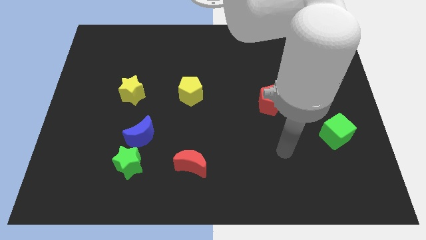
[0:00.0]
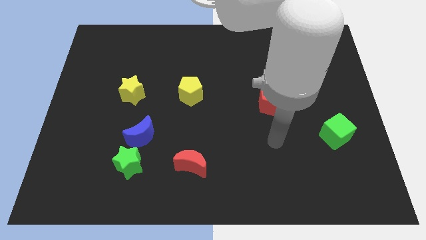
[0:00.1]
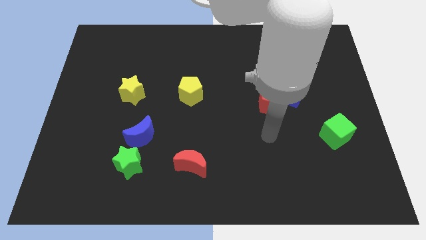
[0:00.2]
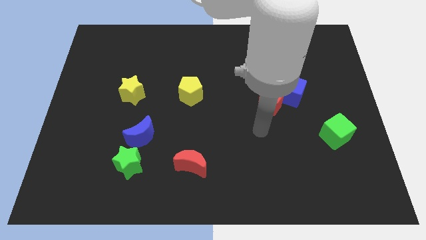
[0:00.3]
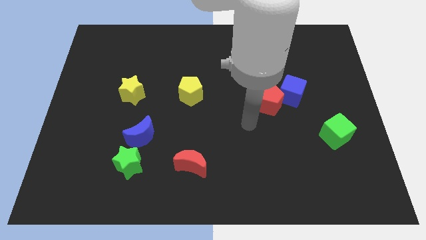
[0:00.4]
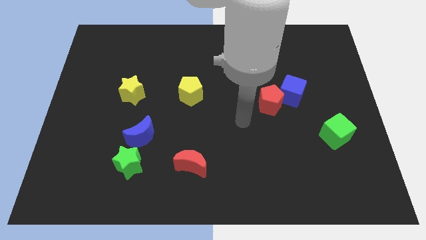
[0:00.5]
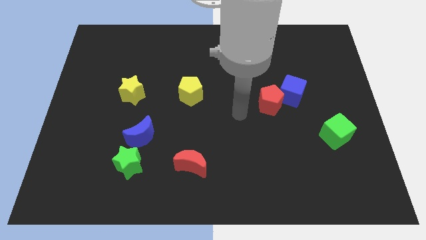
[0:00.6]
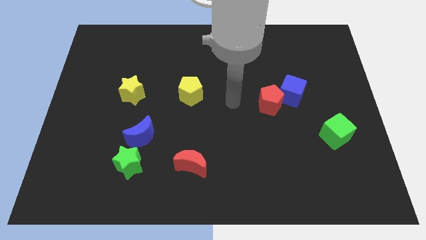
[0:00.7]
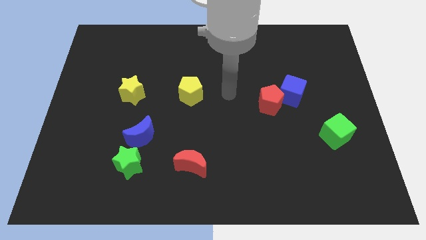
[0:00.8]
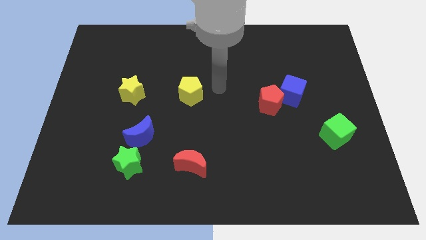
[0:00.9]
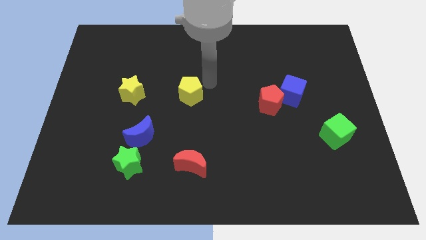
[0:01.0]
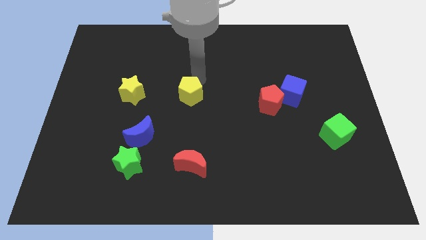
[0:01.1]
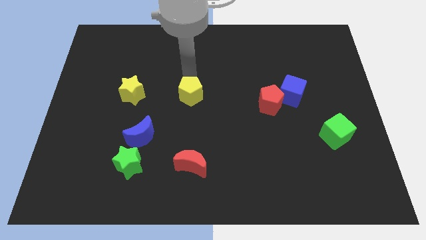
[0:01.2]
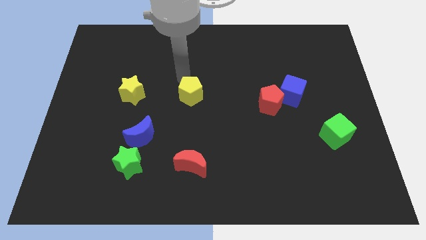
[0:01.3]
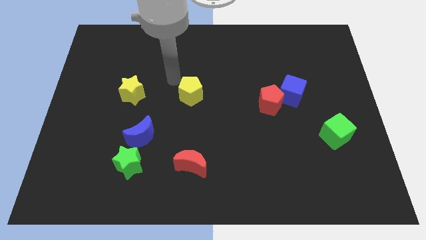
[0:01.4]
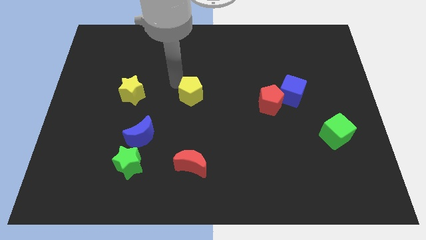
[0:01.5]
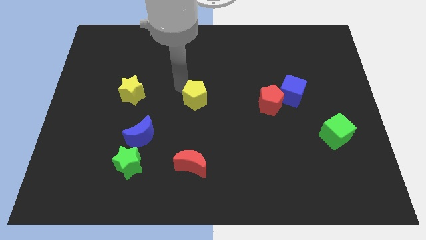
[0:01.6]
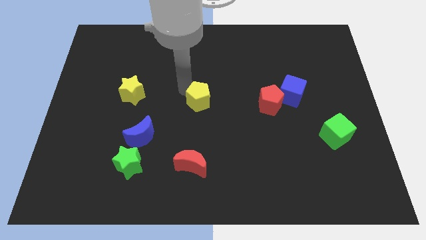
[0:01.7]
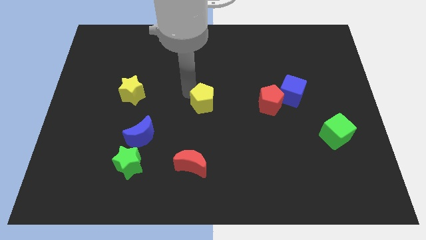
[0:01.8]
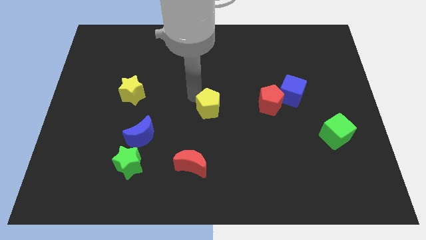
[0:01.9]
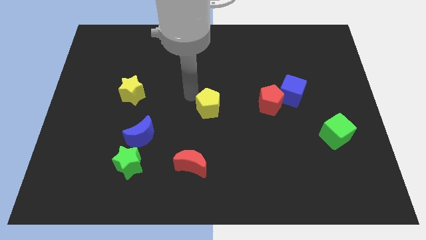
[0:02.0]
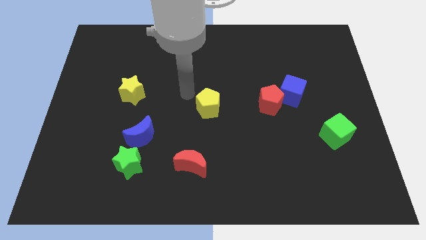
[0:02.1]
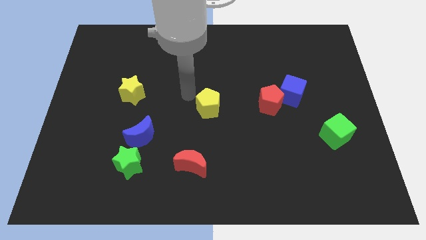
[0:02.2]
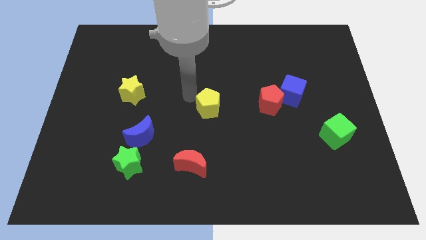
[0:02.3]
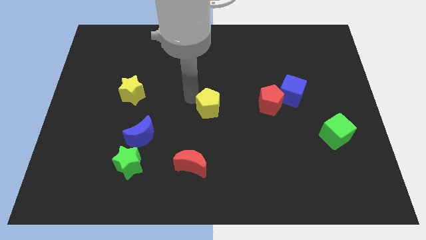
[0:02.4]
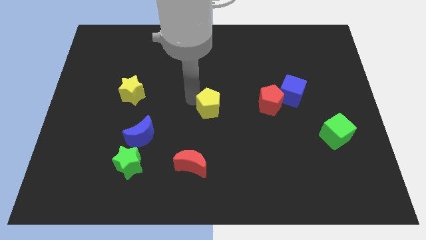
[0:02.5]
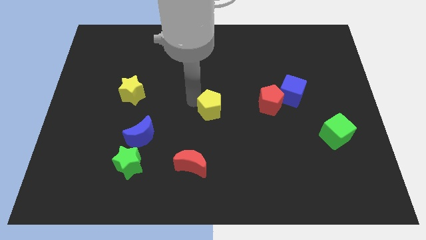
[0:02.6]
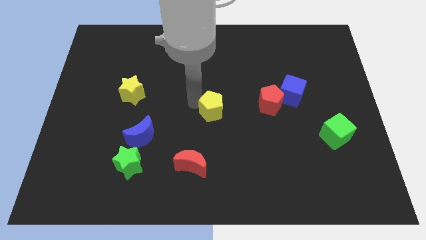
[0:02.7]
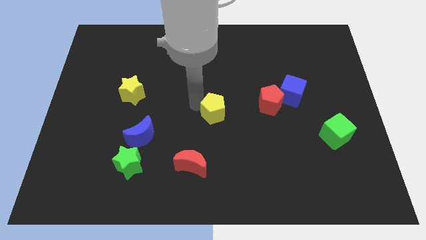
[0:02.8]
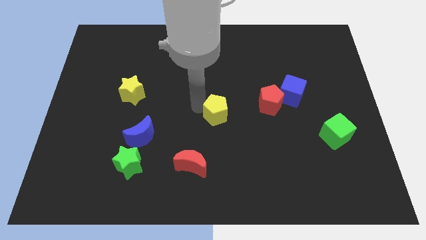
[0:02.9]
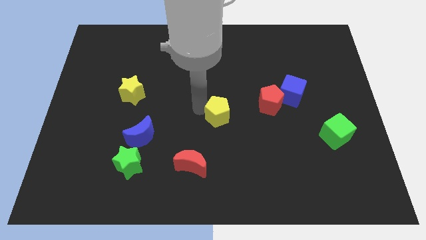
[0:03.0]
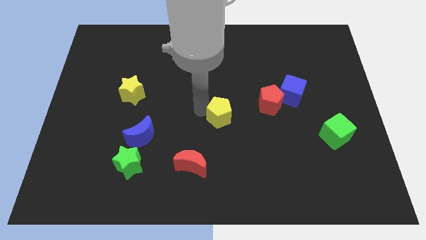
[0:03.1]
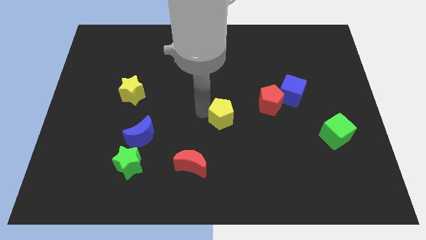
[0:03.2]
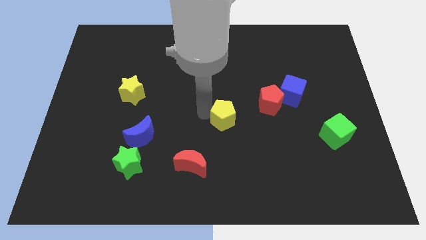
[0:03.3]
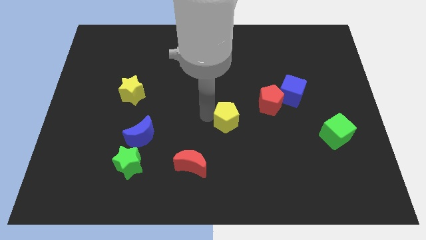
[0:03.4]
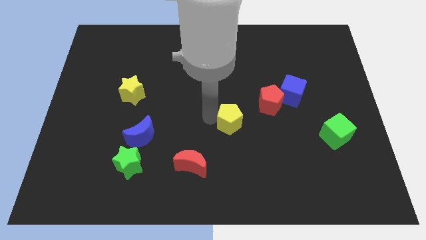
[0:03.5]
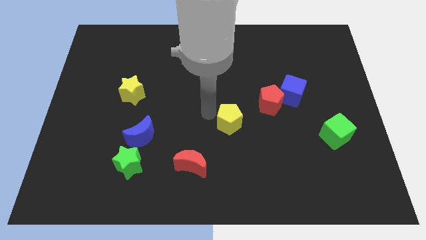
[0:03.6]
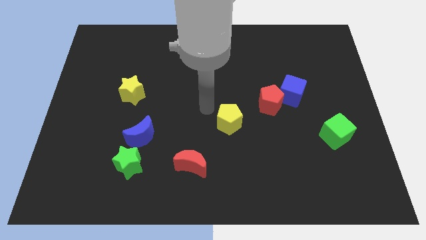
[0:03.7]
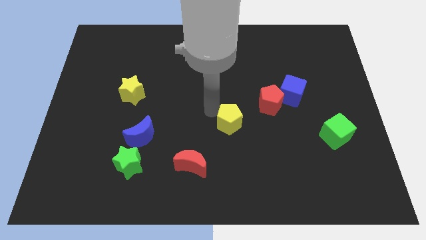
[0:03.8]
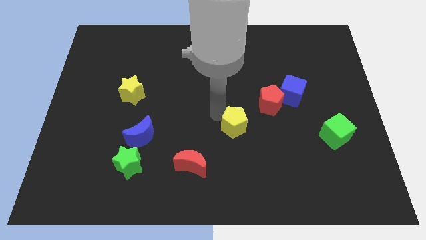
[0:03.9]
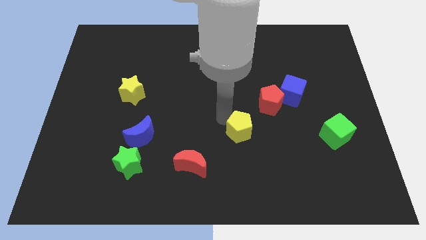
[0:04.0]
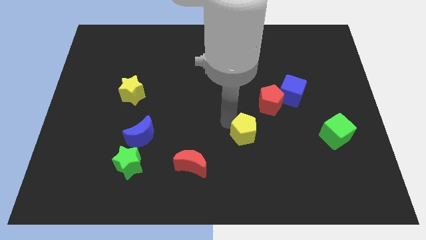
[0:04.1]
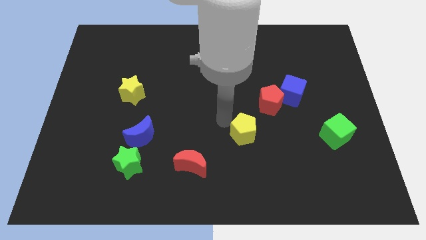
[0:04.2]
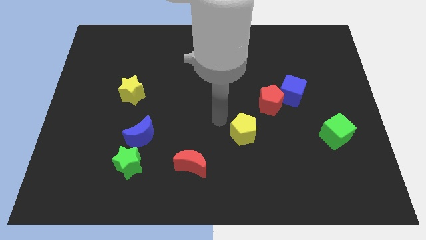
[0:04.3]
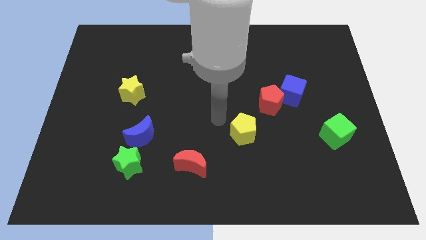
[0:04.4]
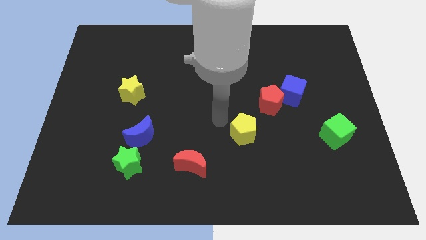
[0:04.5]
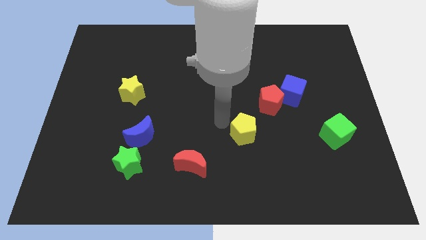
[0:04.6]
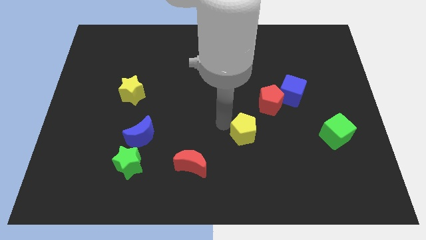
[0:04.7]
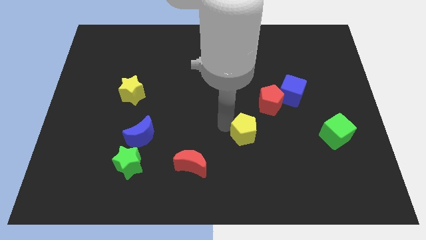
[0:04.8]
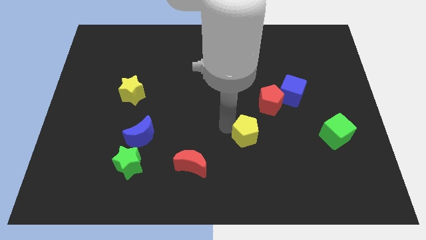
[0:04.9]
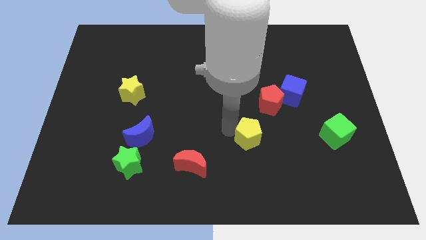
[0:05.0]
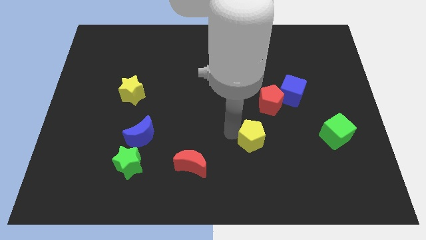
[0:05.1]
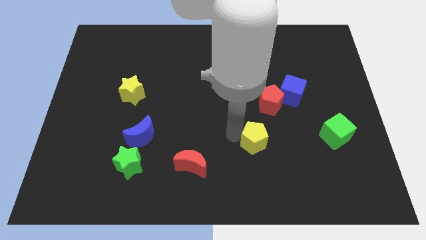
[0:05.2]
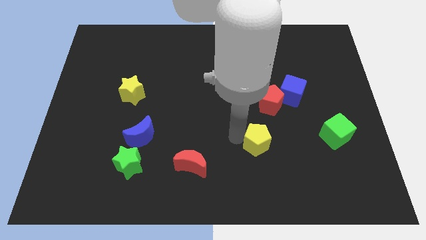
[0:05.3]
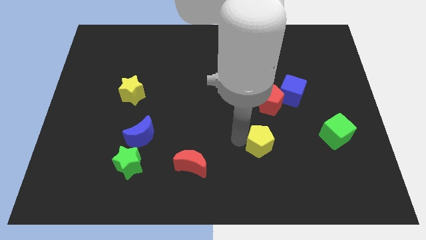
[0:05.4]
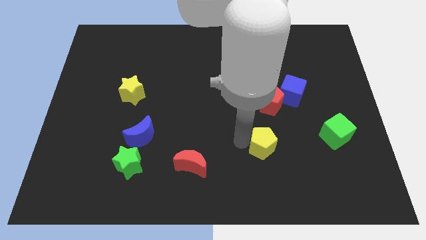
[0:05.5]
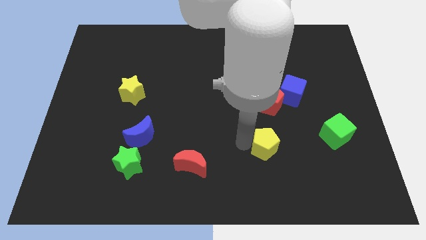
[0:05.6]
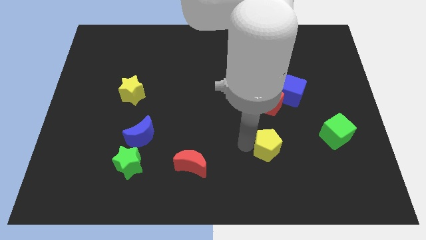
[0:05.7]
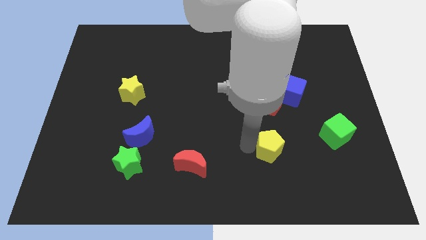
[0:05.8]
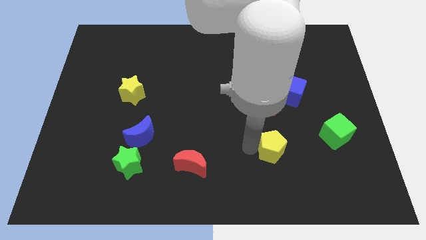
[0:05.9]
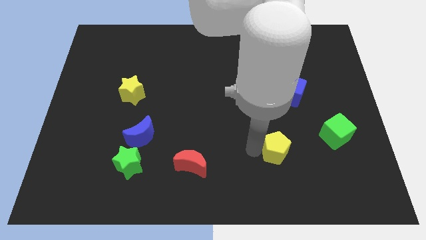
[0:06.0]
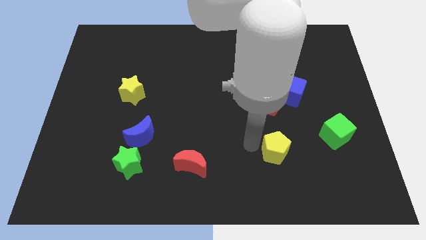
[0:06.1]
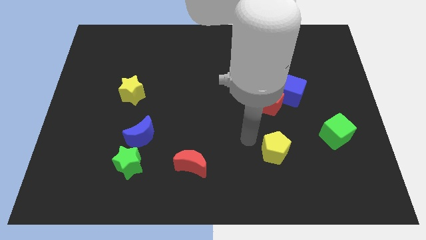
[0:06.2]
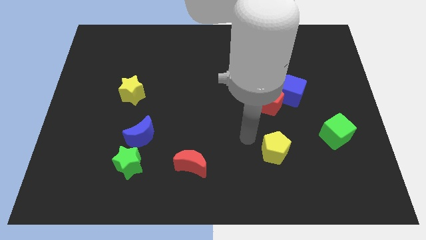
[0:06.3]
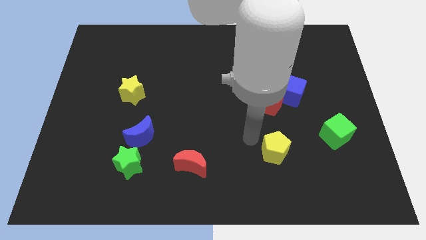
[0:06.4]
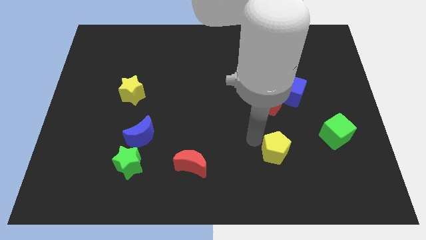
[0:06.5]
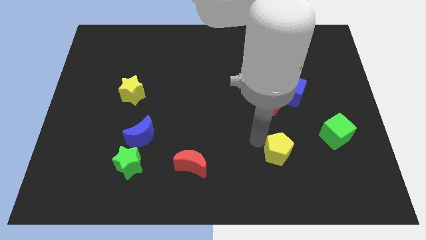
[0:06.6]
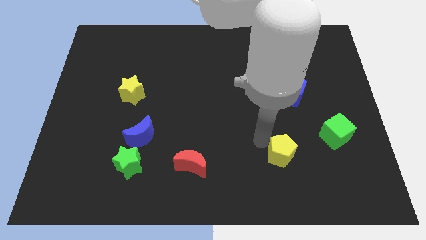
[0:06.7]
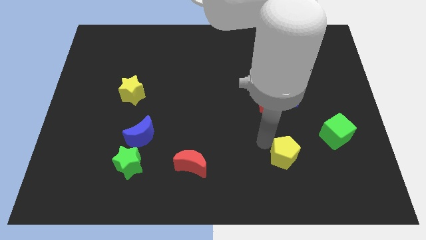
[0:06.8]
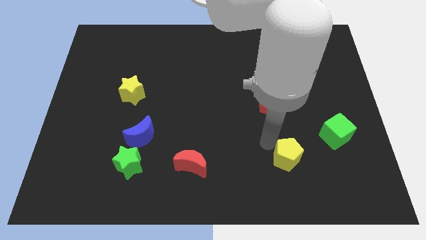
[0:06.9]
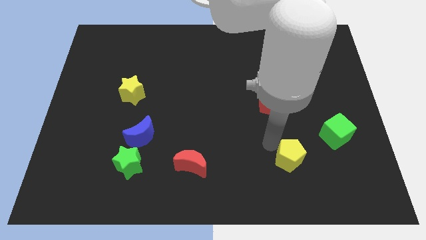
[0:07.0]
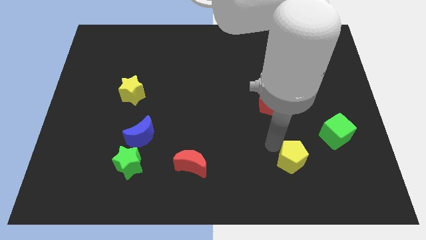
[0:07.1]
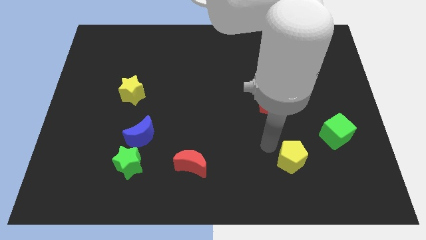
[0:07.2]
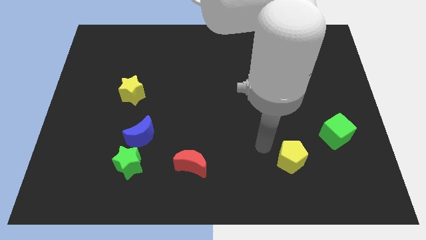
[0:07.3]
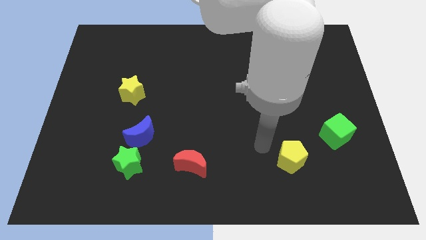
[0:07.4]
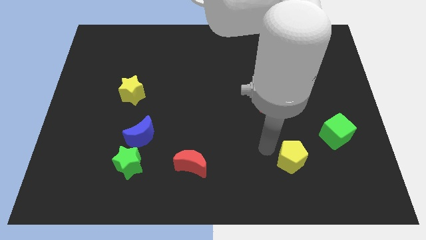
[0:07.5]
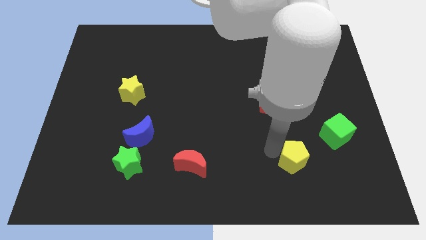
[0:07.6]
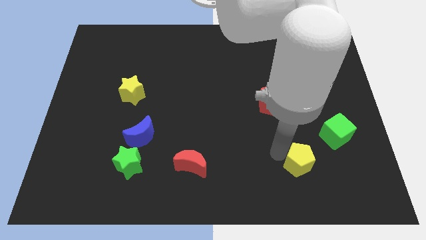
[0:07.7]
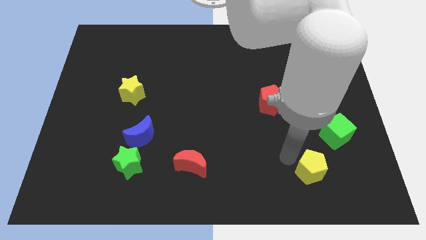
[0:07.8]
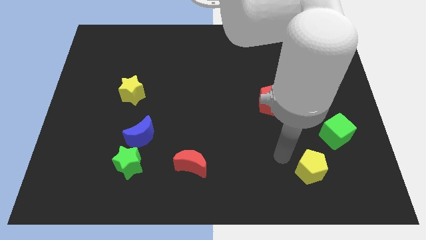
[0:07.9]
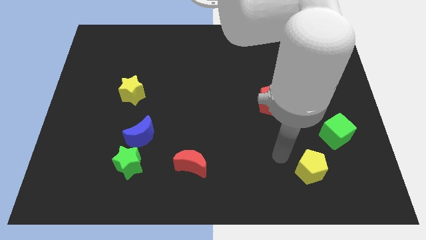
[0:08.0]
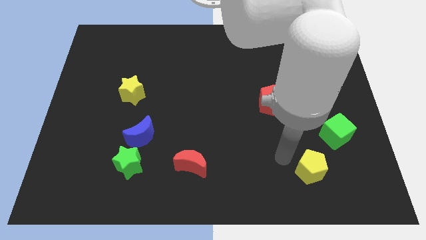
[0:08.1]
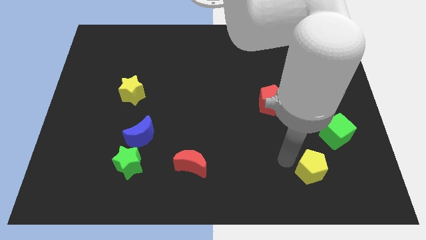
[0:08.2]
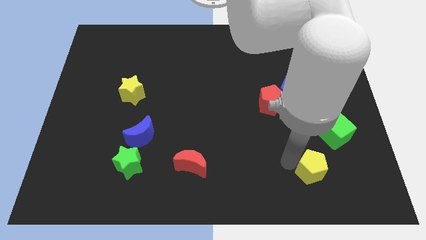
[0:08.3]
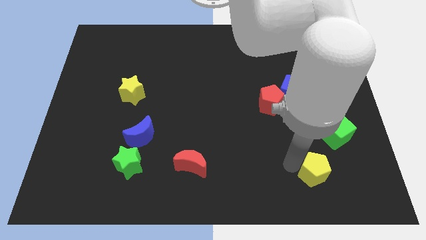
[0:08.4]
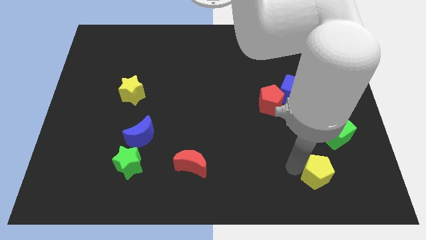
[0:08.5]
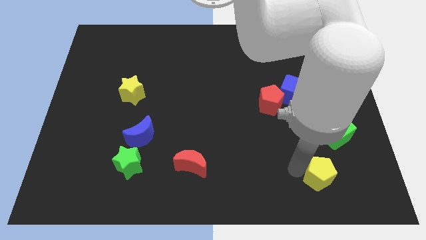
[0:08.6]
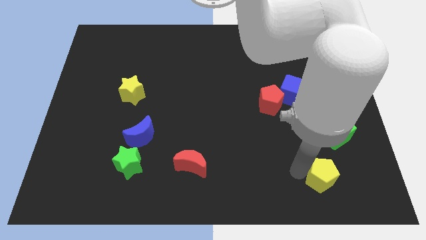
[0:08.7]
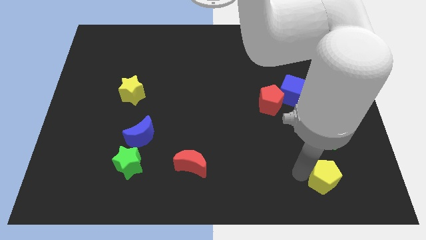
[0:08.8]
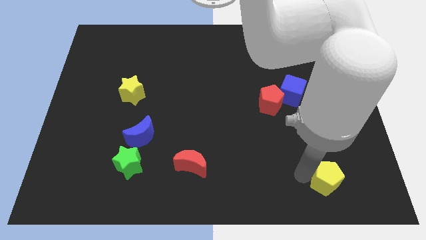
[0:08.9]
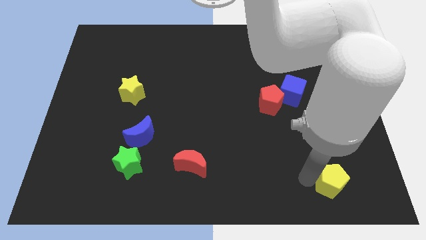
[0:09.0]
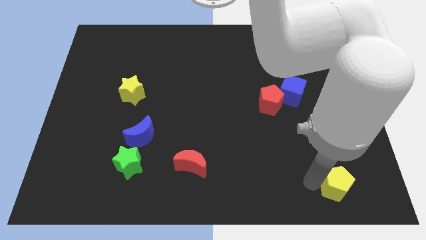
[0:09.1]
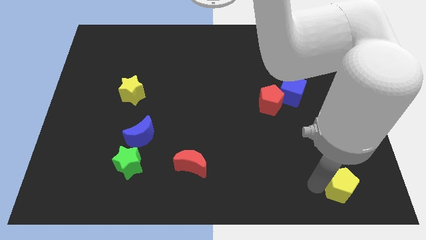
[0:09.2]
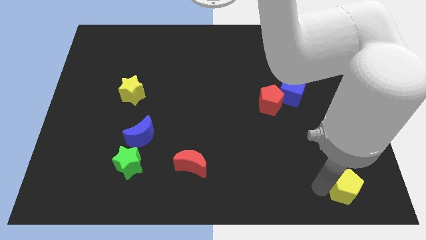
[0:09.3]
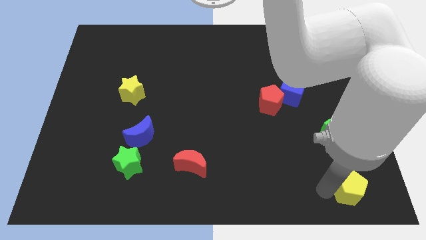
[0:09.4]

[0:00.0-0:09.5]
move the yellow pentagon to the bottom right corner
